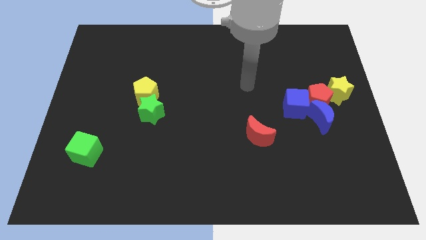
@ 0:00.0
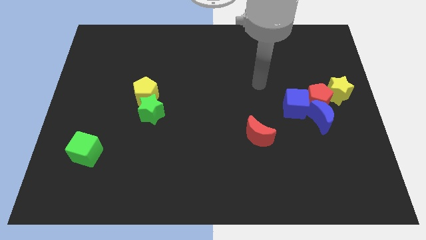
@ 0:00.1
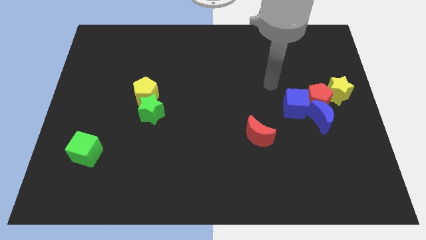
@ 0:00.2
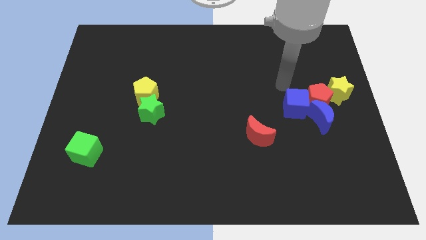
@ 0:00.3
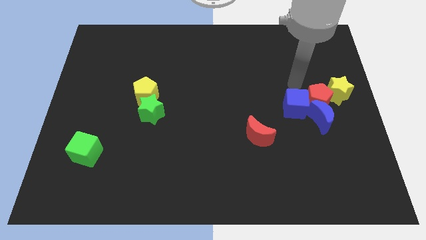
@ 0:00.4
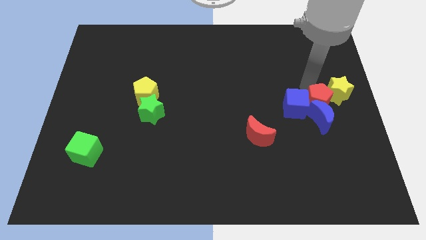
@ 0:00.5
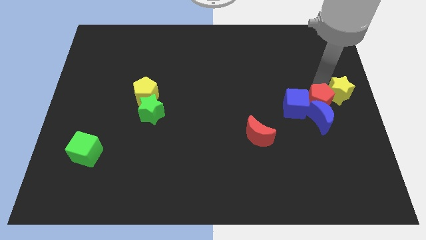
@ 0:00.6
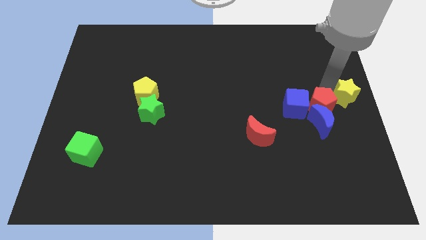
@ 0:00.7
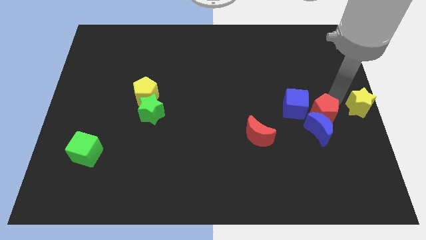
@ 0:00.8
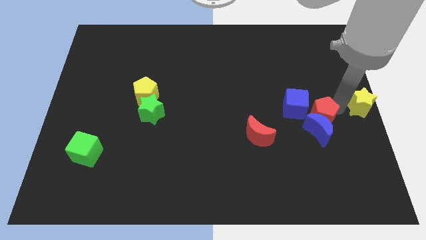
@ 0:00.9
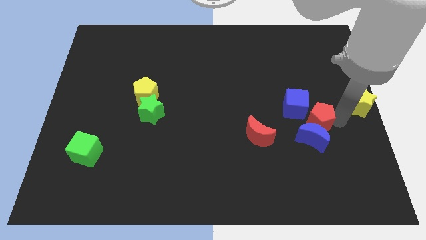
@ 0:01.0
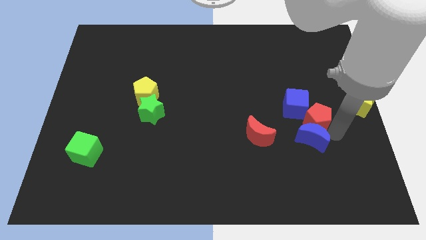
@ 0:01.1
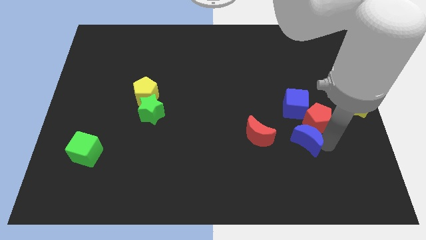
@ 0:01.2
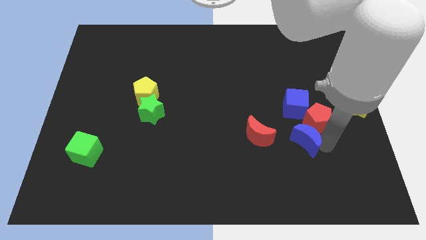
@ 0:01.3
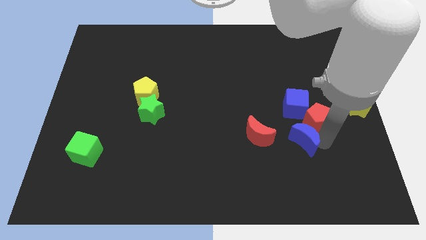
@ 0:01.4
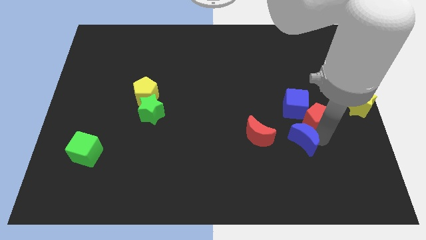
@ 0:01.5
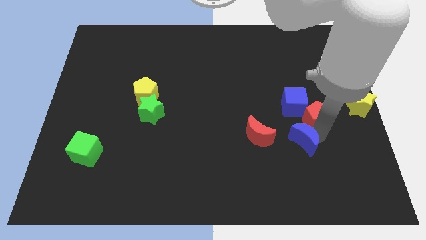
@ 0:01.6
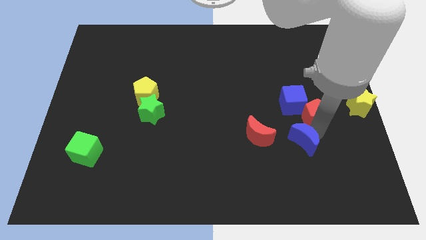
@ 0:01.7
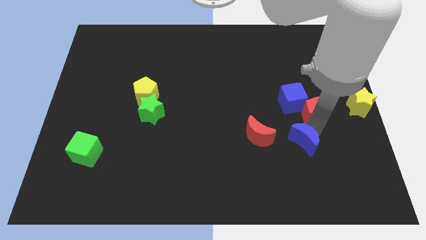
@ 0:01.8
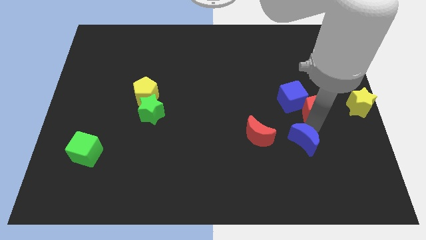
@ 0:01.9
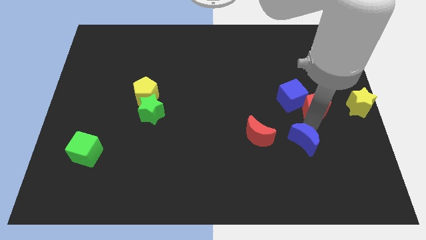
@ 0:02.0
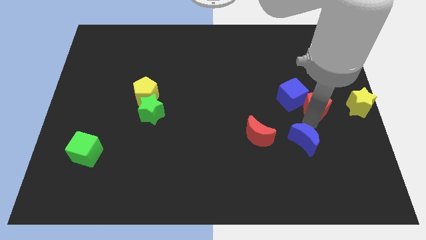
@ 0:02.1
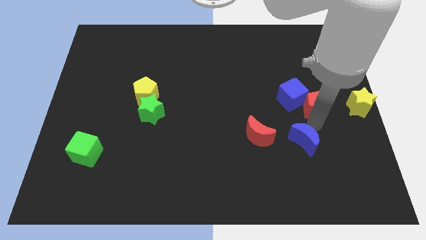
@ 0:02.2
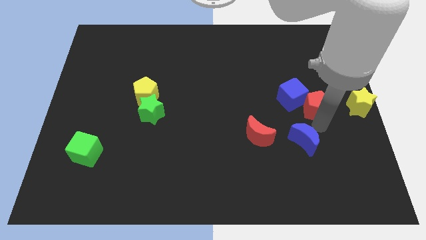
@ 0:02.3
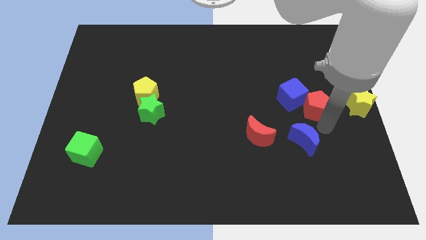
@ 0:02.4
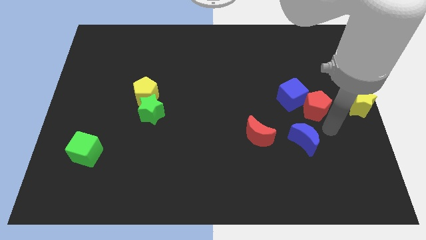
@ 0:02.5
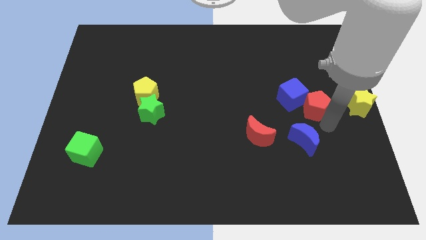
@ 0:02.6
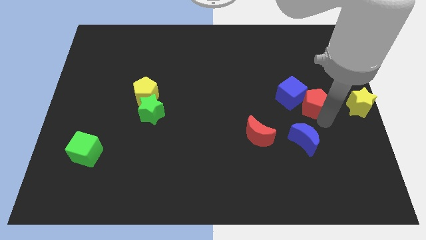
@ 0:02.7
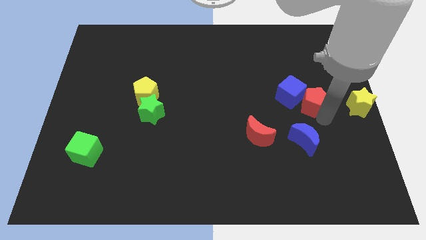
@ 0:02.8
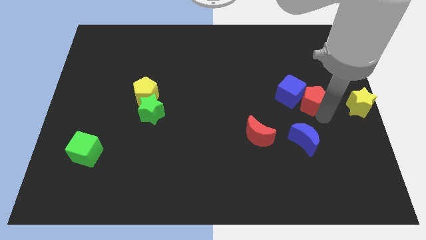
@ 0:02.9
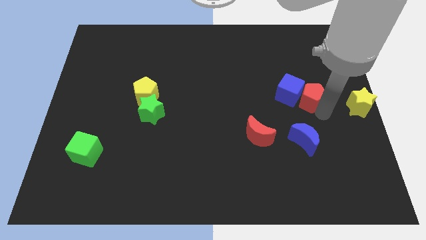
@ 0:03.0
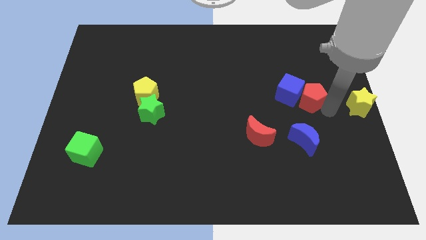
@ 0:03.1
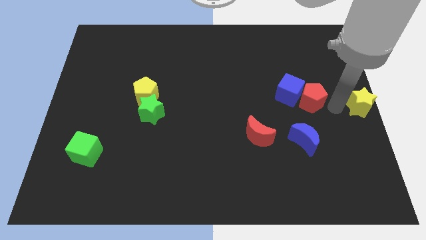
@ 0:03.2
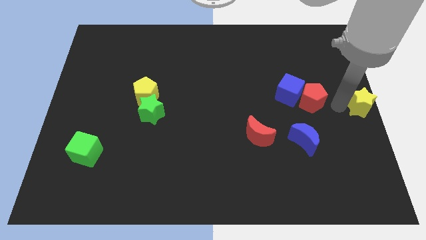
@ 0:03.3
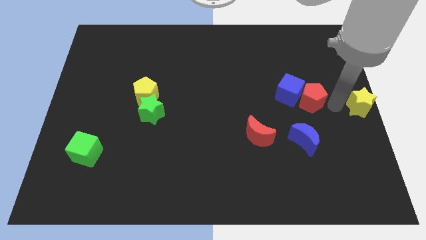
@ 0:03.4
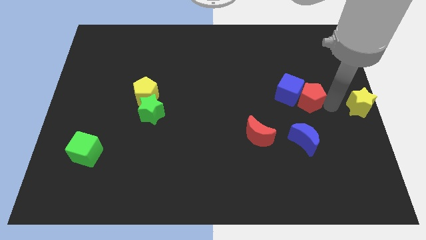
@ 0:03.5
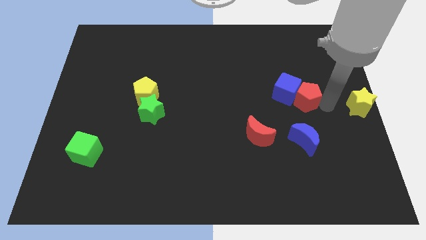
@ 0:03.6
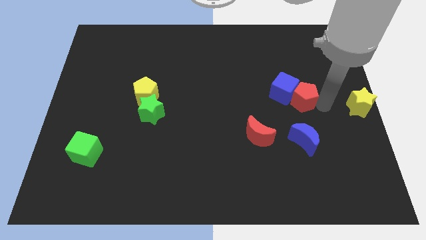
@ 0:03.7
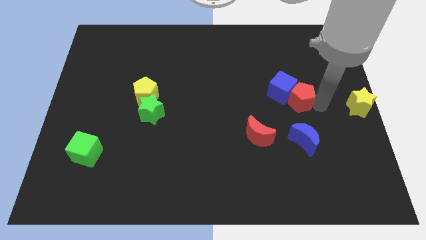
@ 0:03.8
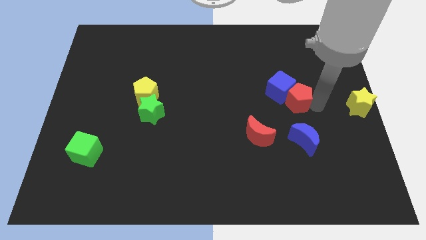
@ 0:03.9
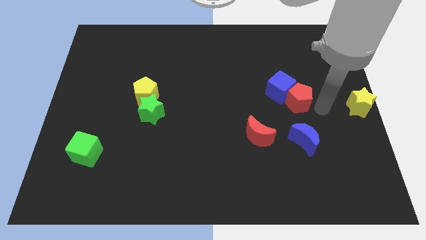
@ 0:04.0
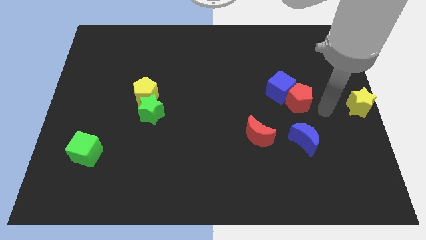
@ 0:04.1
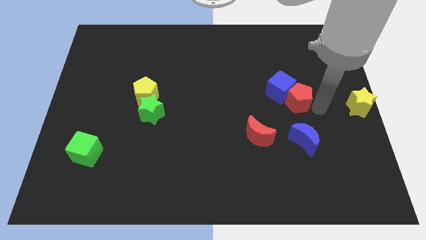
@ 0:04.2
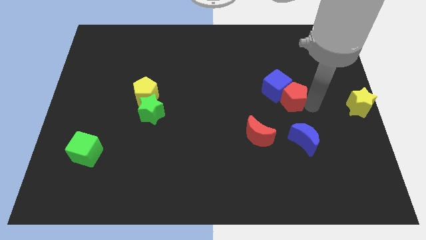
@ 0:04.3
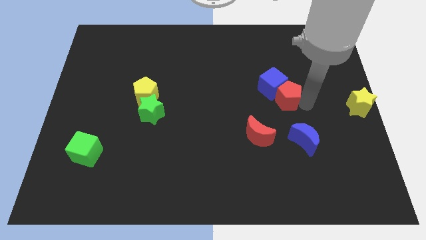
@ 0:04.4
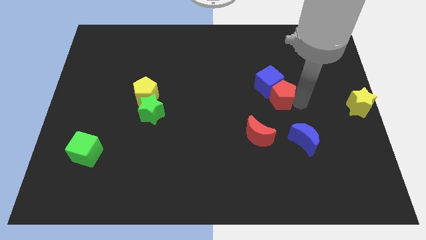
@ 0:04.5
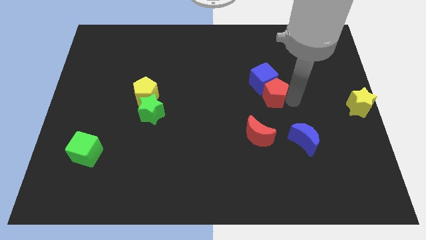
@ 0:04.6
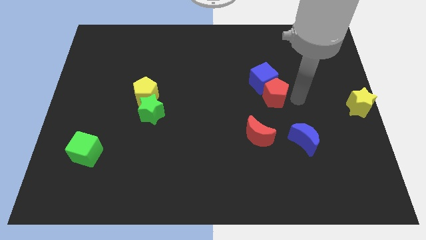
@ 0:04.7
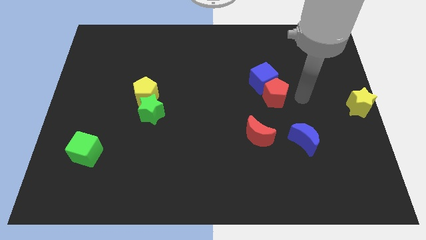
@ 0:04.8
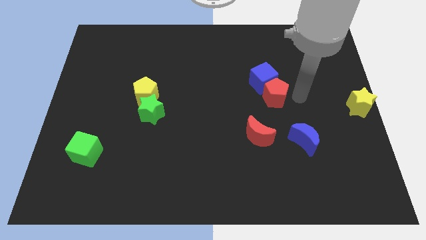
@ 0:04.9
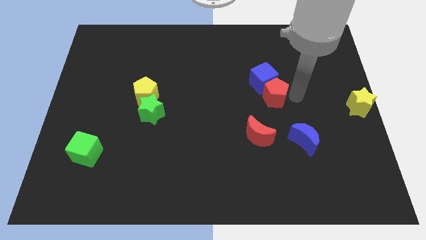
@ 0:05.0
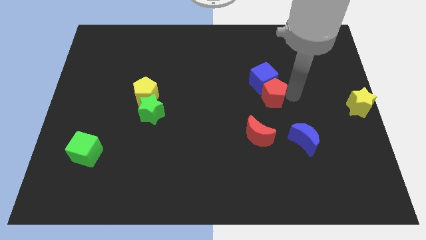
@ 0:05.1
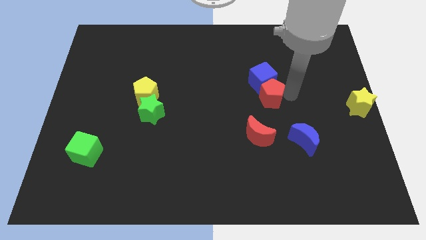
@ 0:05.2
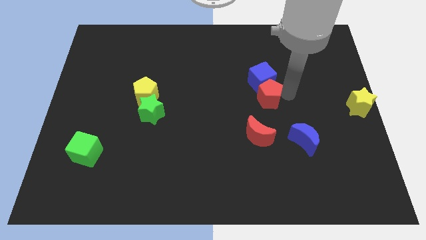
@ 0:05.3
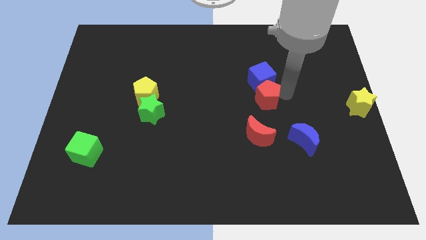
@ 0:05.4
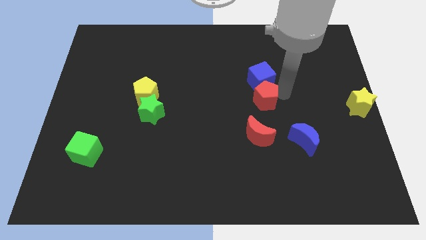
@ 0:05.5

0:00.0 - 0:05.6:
move the red pentagon to the middle

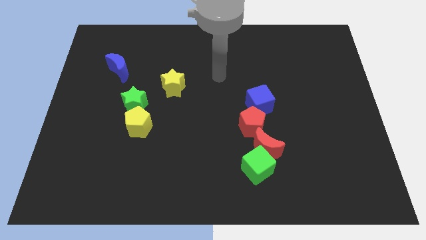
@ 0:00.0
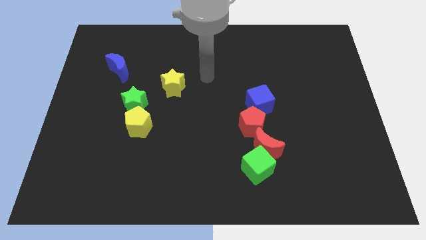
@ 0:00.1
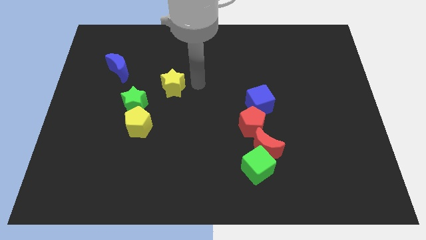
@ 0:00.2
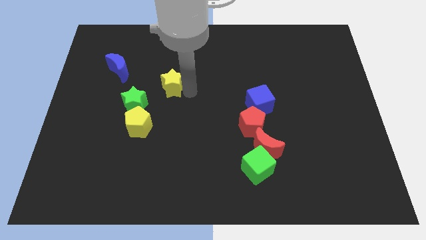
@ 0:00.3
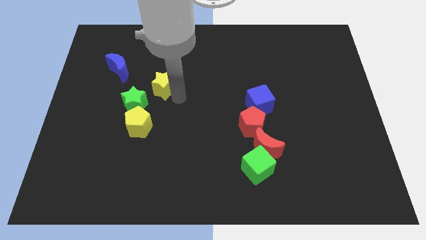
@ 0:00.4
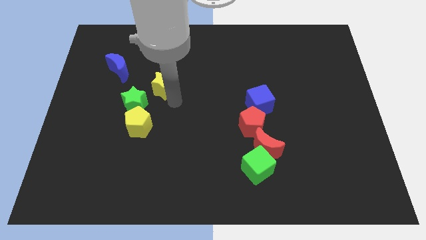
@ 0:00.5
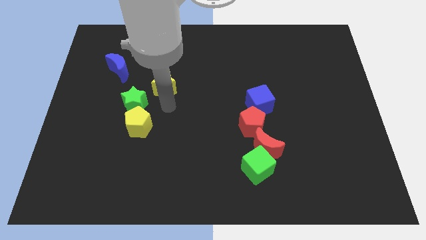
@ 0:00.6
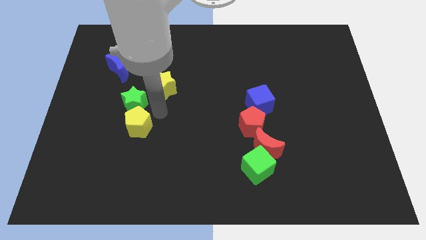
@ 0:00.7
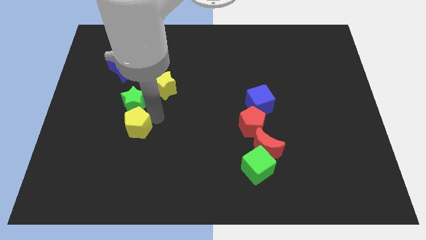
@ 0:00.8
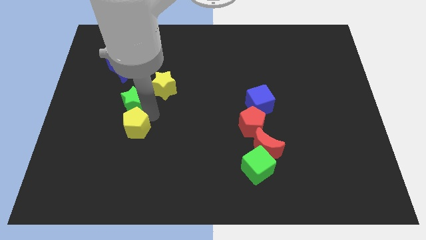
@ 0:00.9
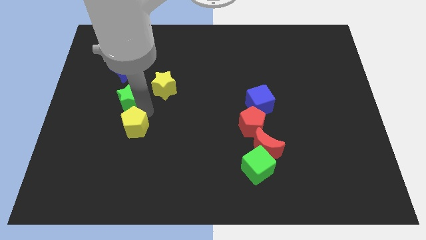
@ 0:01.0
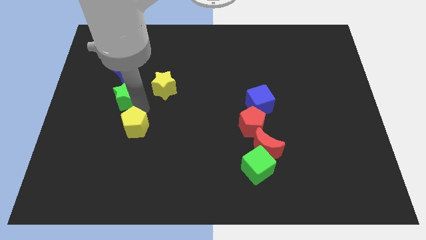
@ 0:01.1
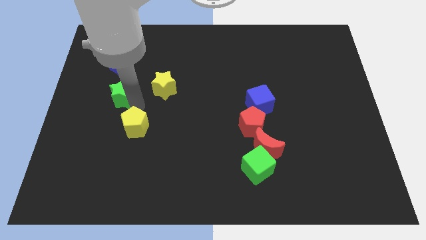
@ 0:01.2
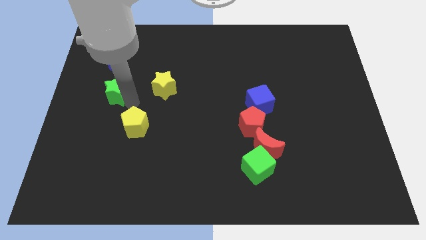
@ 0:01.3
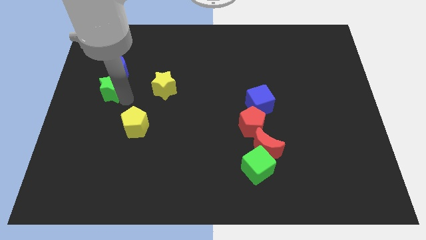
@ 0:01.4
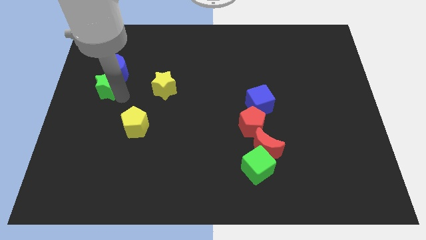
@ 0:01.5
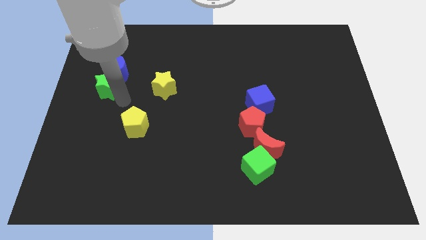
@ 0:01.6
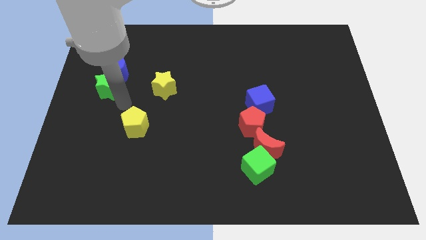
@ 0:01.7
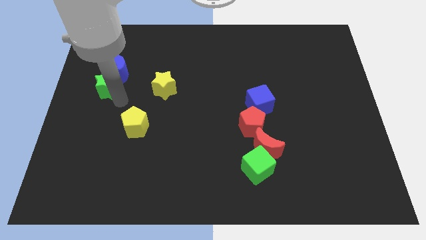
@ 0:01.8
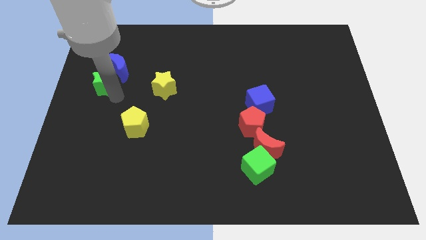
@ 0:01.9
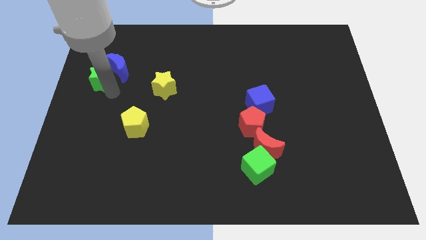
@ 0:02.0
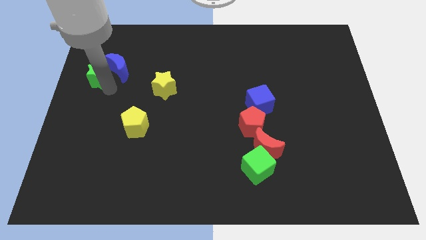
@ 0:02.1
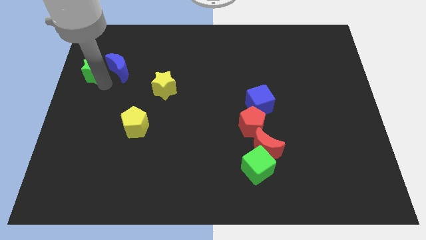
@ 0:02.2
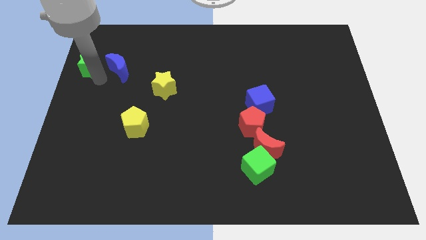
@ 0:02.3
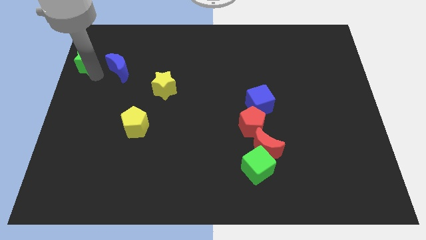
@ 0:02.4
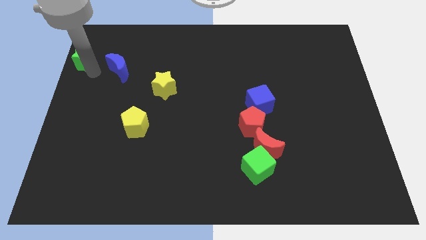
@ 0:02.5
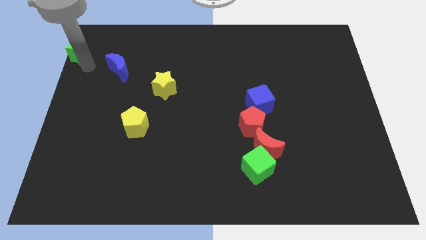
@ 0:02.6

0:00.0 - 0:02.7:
put the green star to the top left of the board
